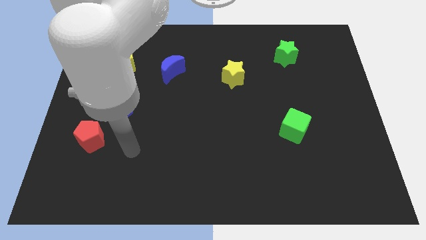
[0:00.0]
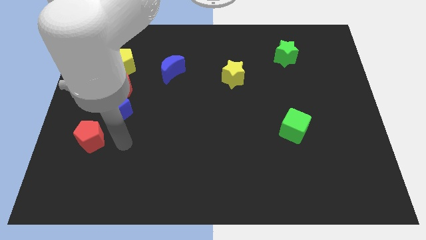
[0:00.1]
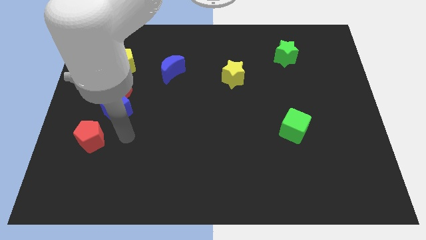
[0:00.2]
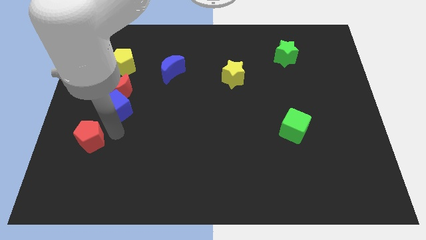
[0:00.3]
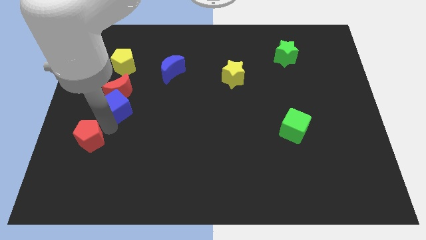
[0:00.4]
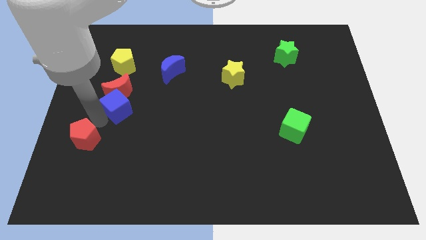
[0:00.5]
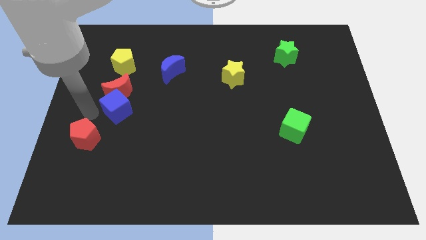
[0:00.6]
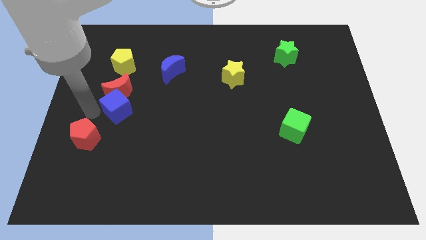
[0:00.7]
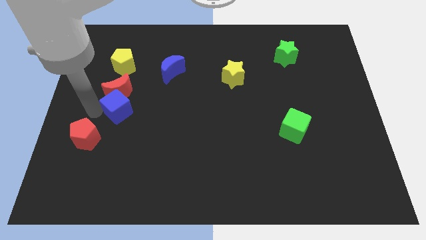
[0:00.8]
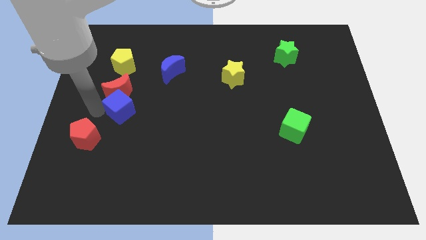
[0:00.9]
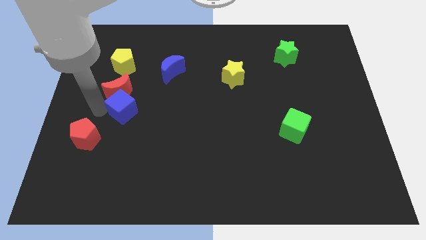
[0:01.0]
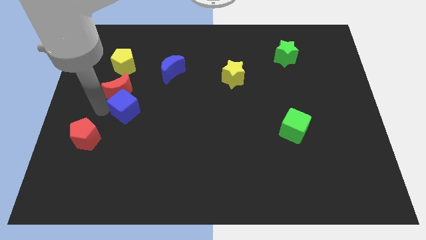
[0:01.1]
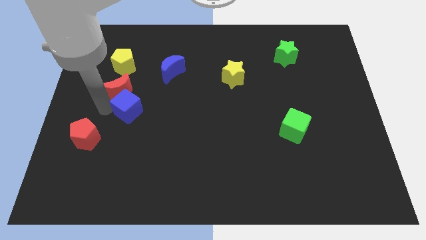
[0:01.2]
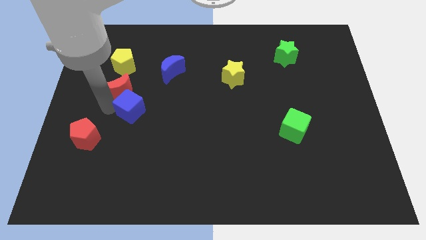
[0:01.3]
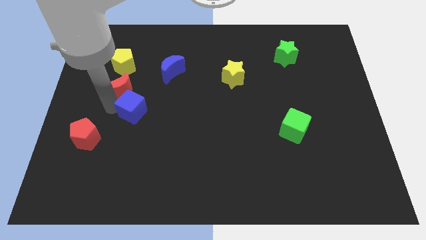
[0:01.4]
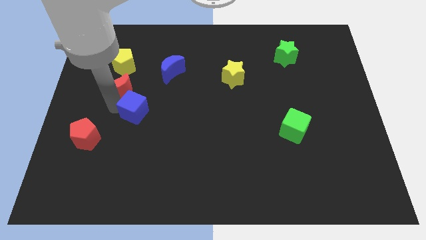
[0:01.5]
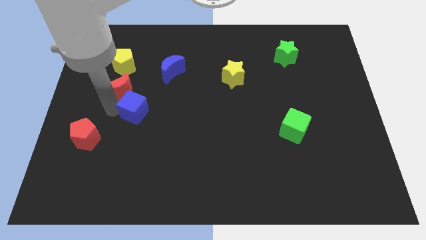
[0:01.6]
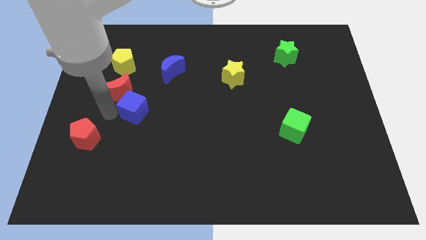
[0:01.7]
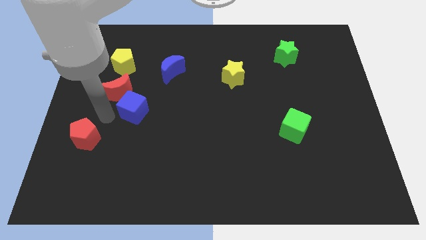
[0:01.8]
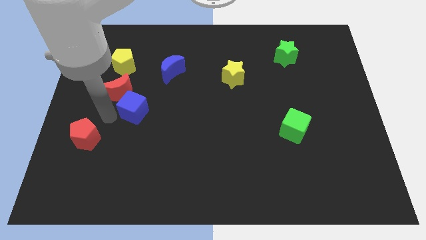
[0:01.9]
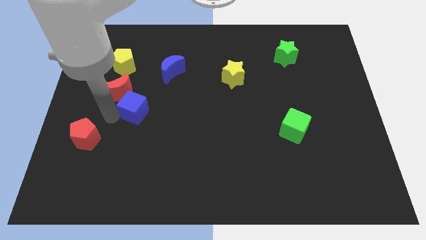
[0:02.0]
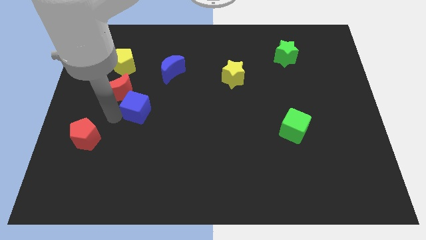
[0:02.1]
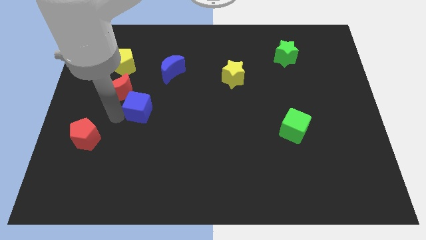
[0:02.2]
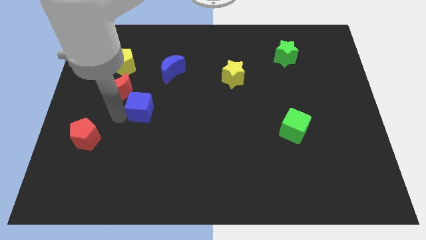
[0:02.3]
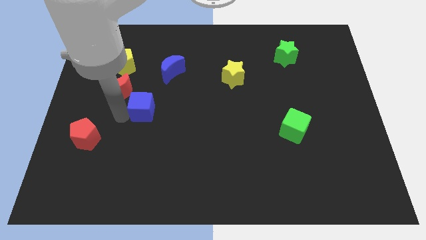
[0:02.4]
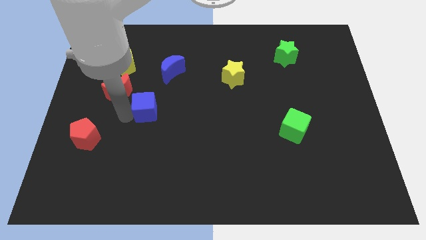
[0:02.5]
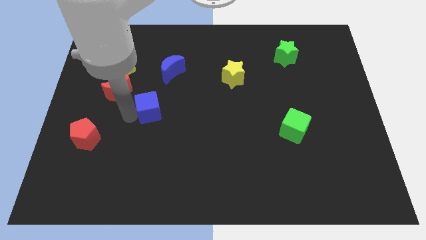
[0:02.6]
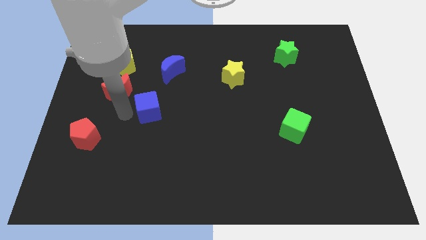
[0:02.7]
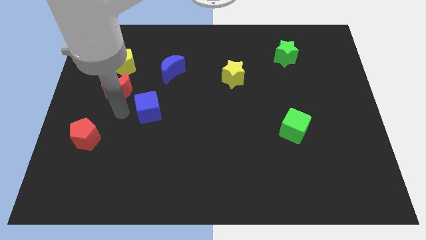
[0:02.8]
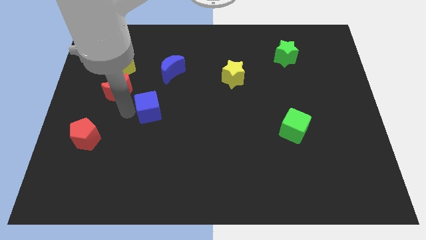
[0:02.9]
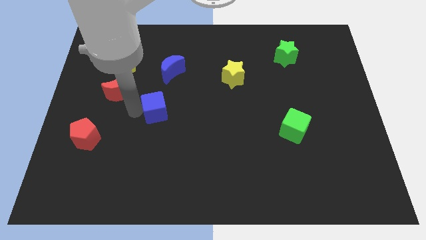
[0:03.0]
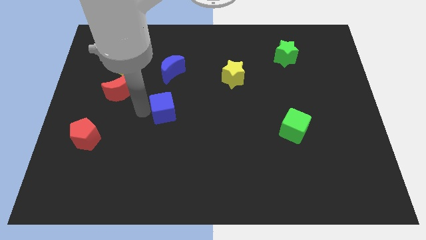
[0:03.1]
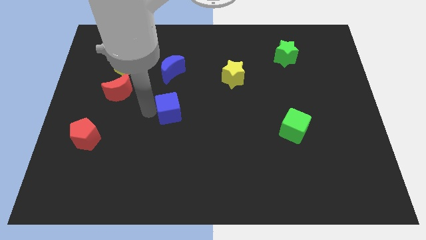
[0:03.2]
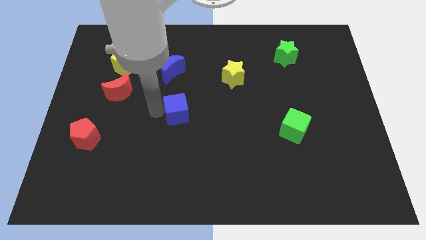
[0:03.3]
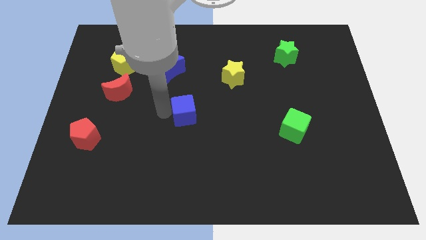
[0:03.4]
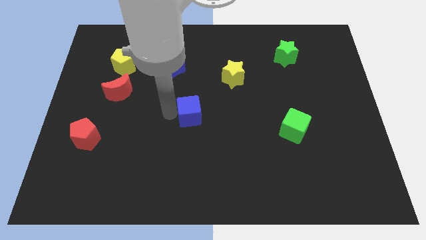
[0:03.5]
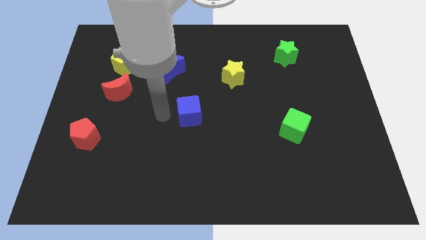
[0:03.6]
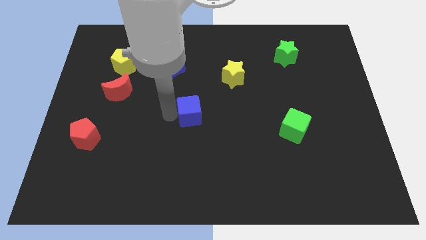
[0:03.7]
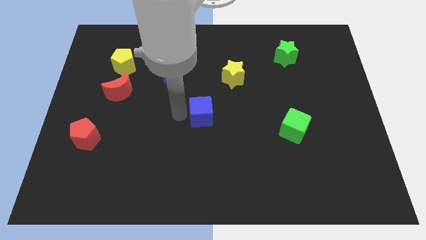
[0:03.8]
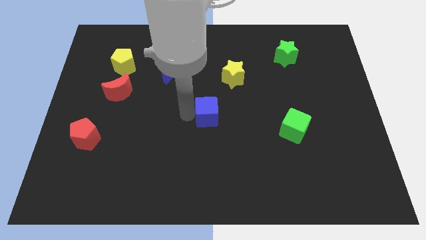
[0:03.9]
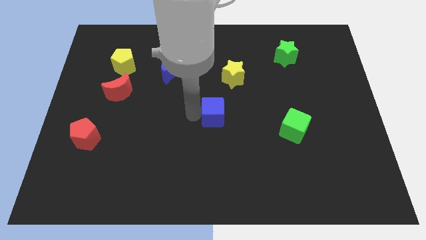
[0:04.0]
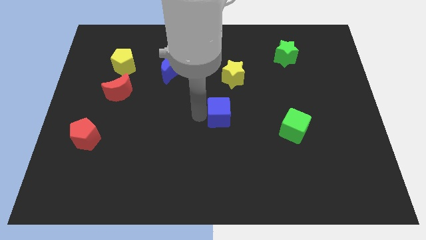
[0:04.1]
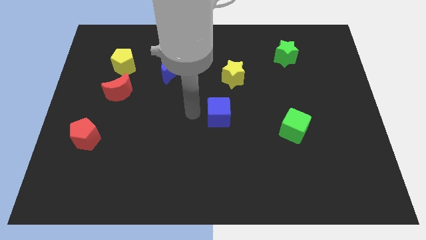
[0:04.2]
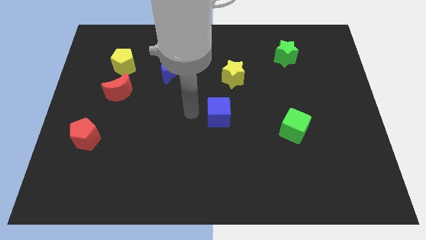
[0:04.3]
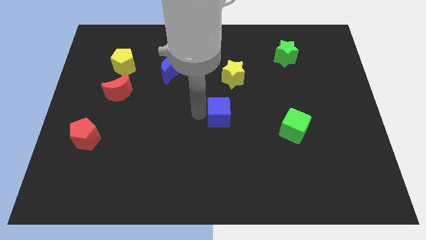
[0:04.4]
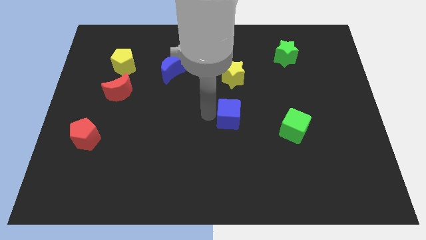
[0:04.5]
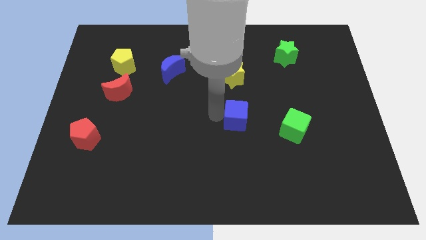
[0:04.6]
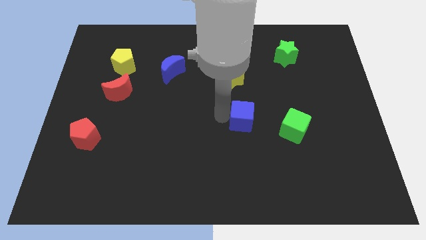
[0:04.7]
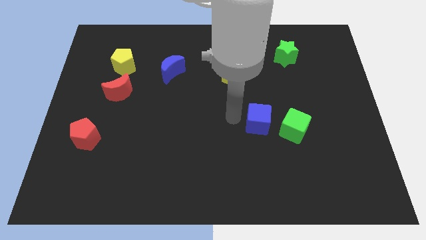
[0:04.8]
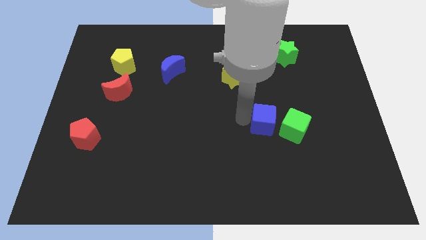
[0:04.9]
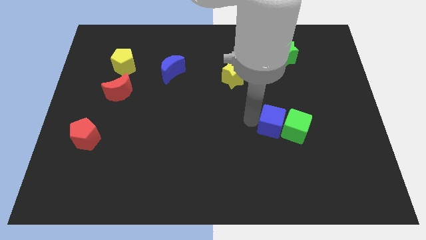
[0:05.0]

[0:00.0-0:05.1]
move the blue cube close to the green cube

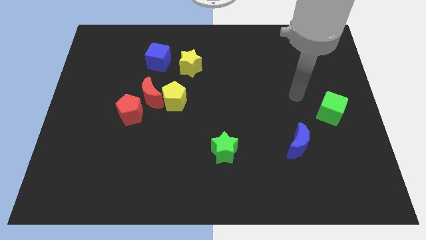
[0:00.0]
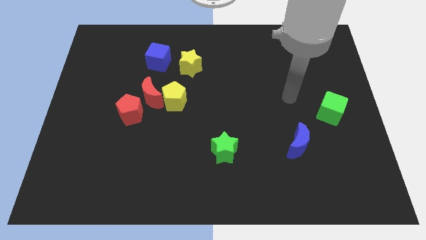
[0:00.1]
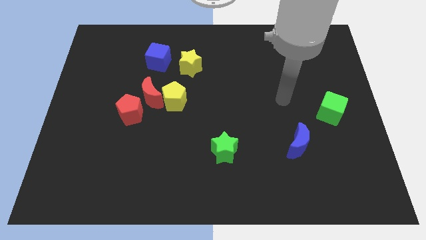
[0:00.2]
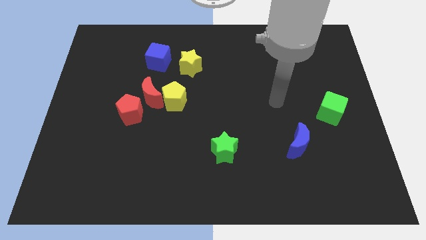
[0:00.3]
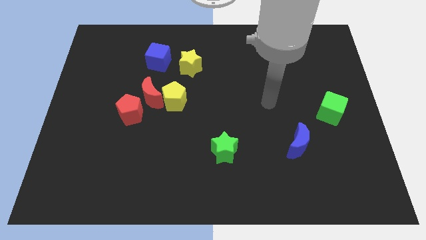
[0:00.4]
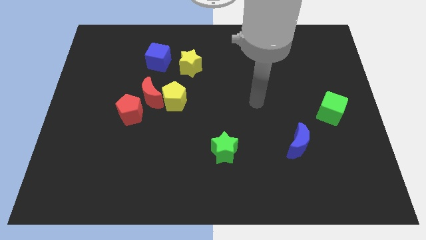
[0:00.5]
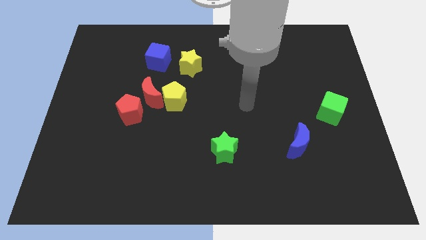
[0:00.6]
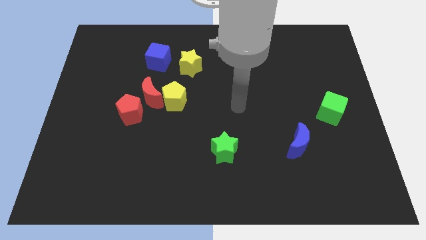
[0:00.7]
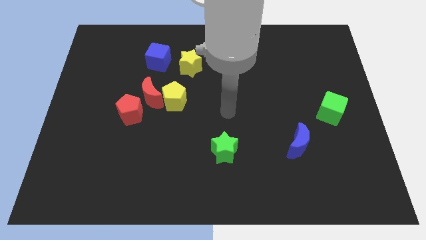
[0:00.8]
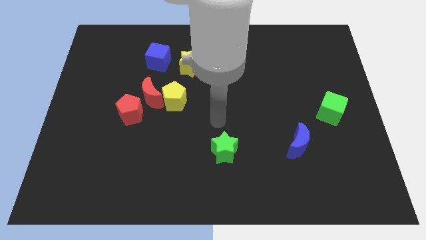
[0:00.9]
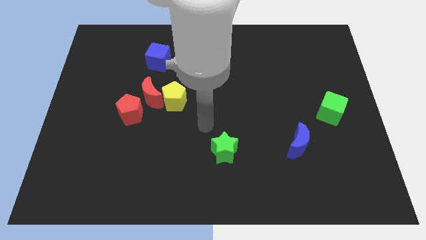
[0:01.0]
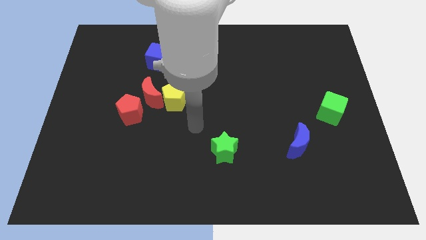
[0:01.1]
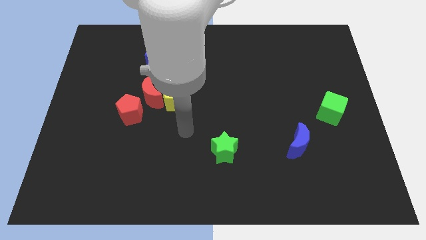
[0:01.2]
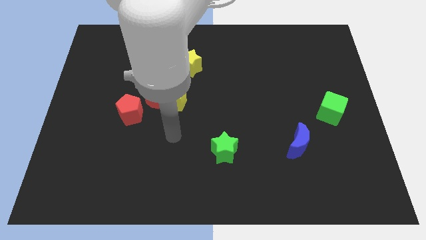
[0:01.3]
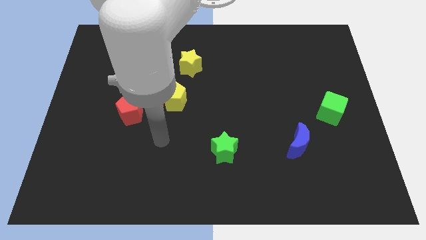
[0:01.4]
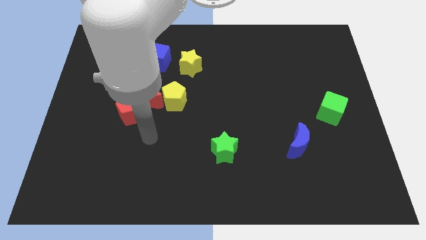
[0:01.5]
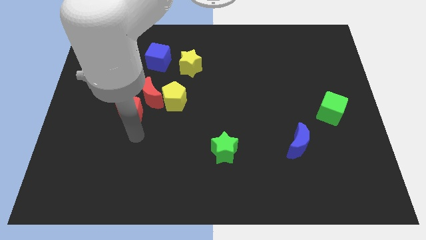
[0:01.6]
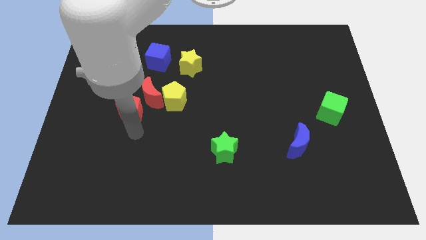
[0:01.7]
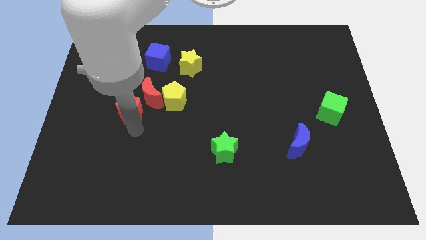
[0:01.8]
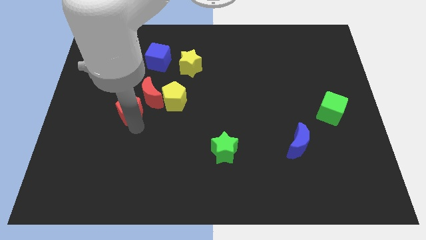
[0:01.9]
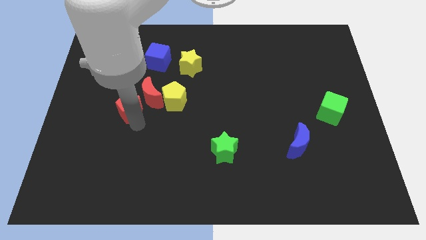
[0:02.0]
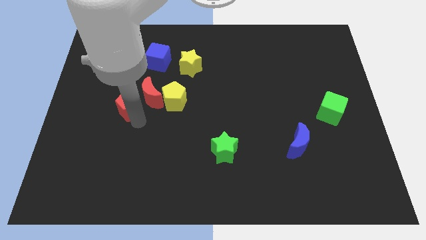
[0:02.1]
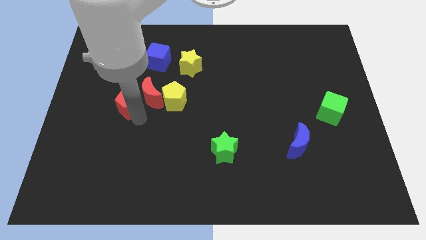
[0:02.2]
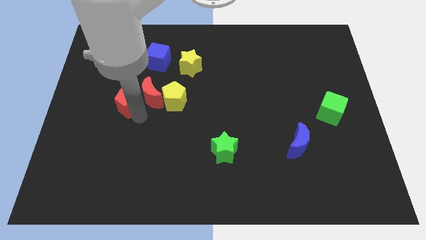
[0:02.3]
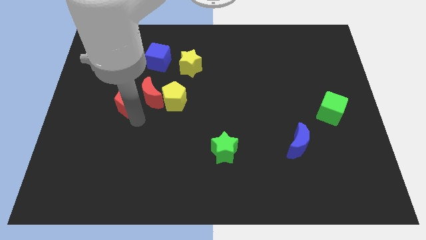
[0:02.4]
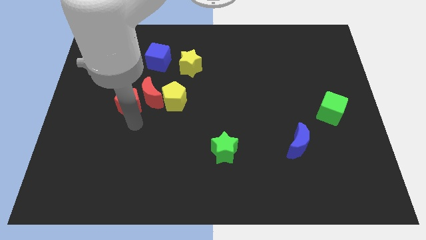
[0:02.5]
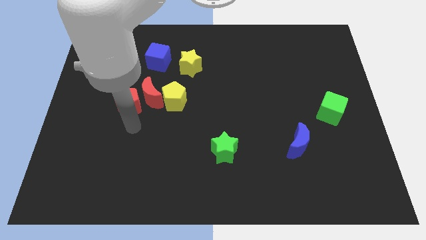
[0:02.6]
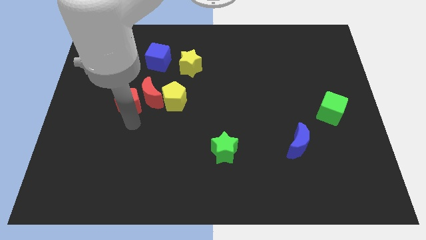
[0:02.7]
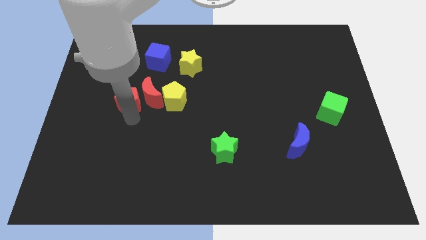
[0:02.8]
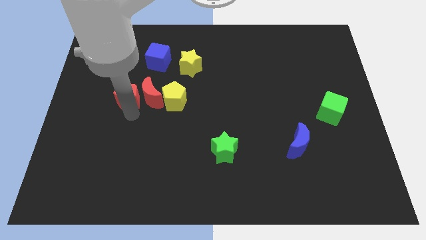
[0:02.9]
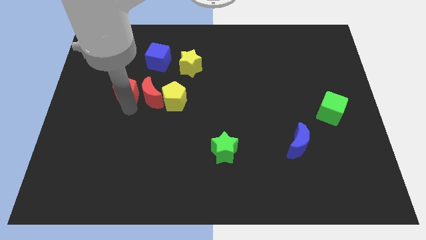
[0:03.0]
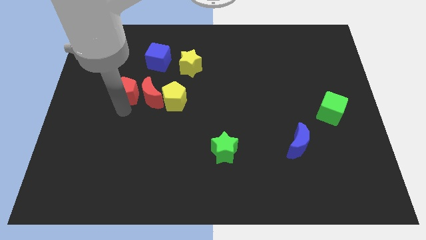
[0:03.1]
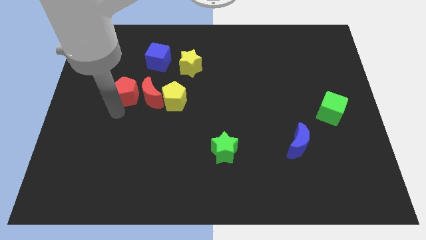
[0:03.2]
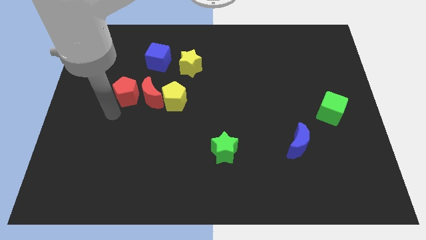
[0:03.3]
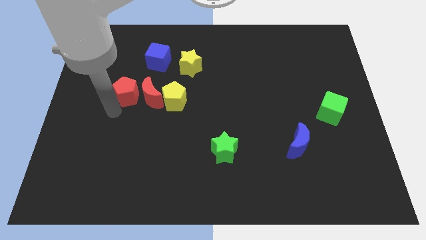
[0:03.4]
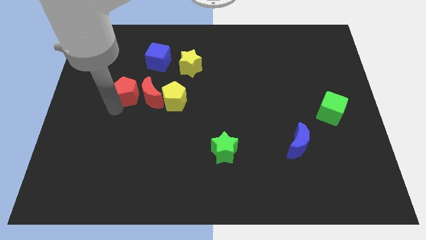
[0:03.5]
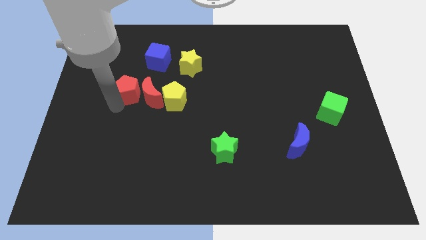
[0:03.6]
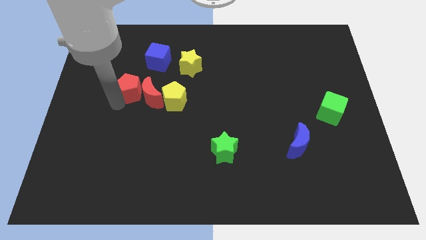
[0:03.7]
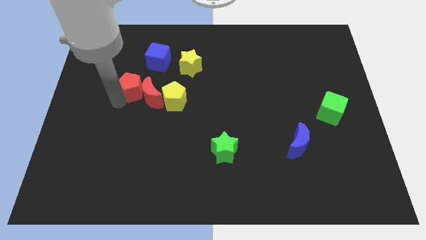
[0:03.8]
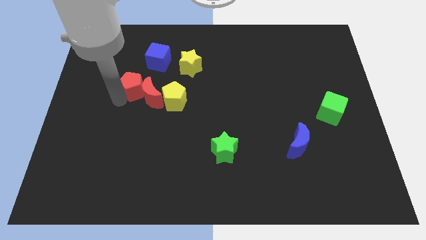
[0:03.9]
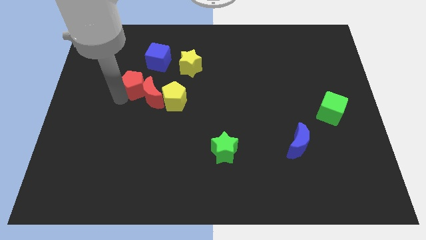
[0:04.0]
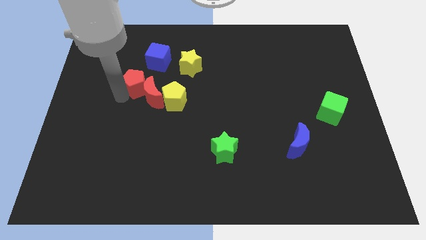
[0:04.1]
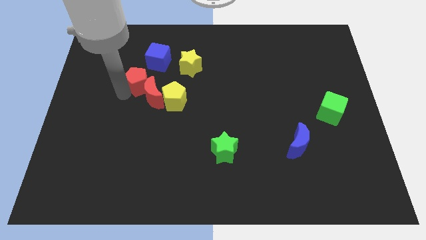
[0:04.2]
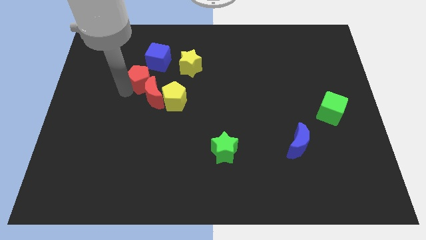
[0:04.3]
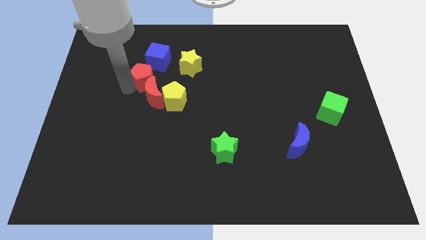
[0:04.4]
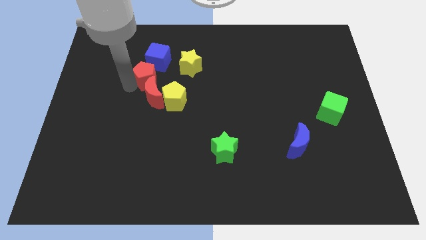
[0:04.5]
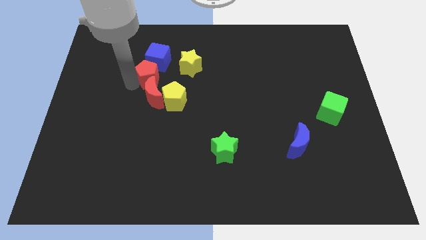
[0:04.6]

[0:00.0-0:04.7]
push the red pentagon next to the blue cube
